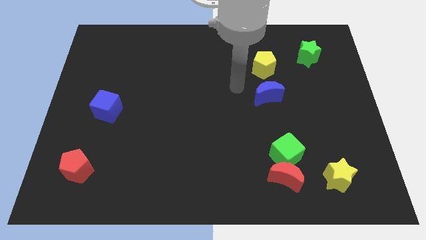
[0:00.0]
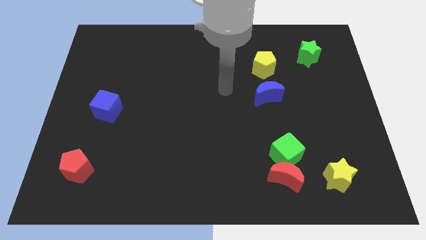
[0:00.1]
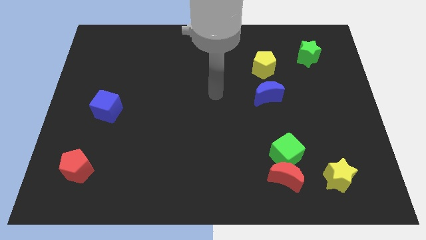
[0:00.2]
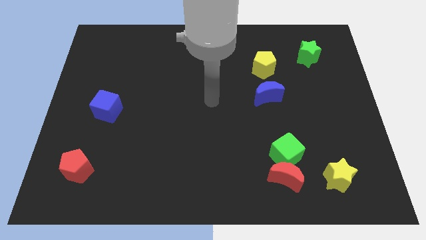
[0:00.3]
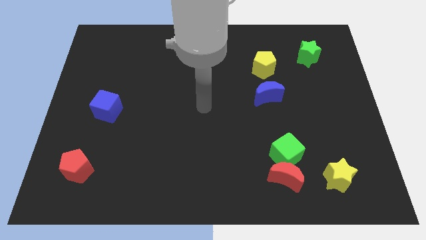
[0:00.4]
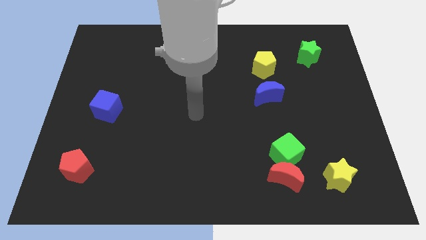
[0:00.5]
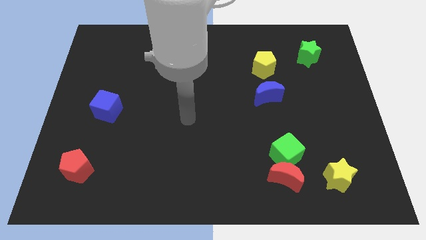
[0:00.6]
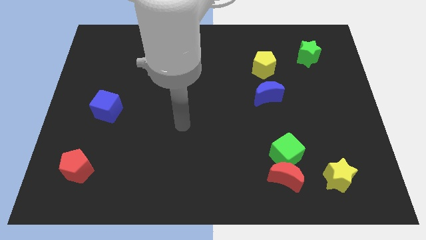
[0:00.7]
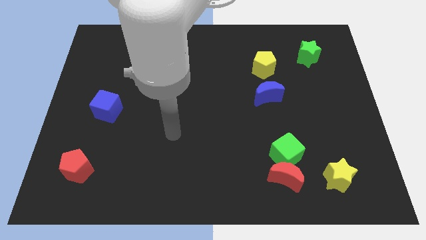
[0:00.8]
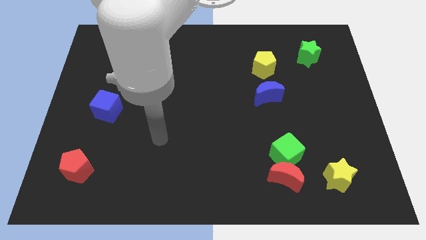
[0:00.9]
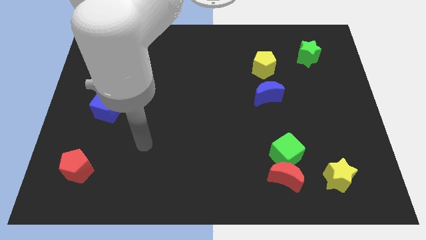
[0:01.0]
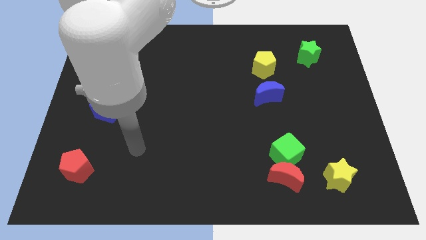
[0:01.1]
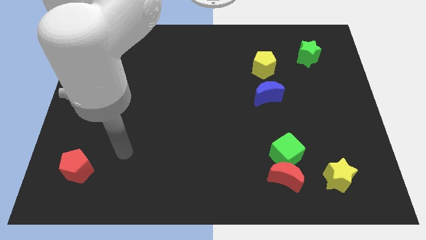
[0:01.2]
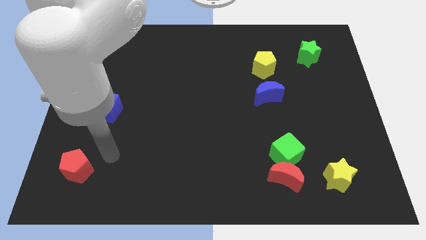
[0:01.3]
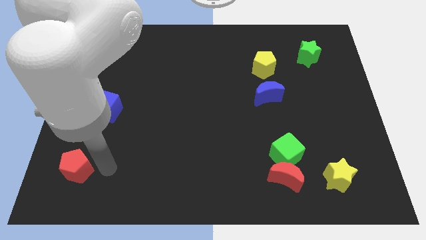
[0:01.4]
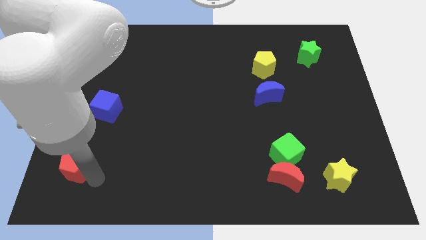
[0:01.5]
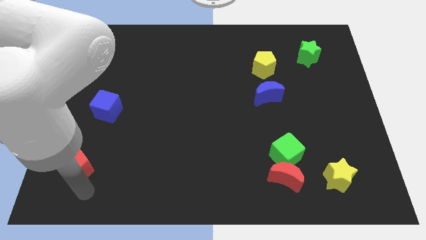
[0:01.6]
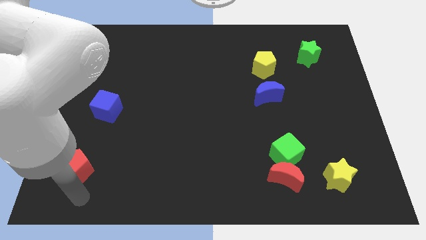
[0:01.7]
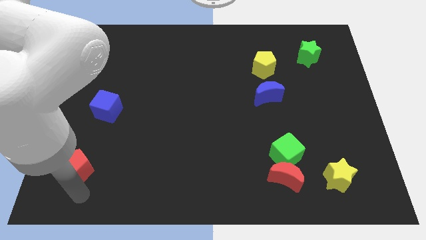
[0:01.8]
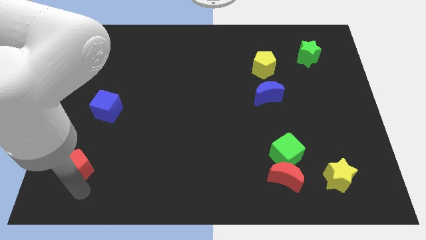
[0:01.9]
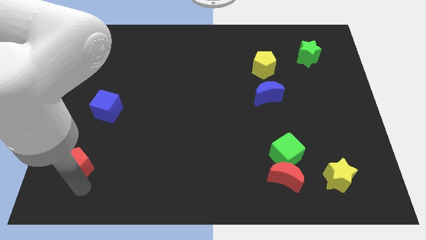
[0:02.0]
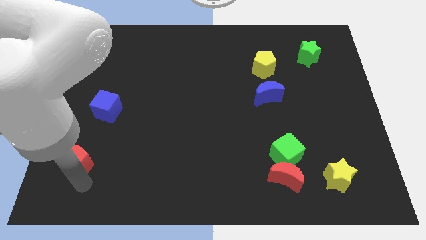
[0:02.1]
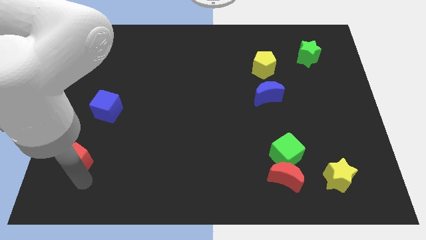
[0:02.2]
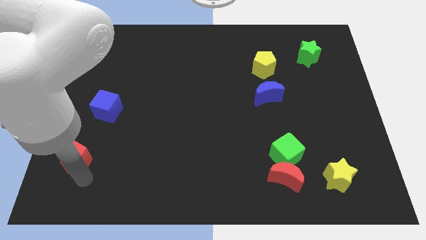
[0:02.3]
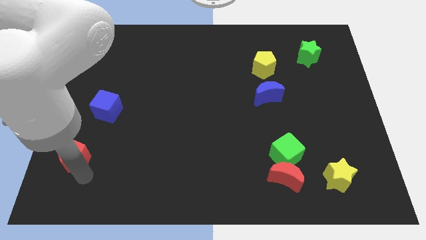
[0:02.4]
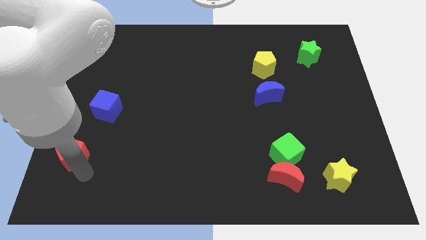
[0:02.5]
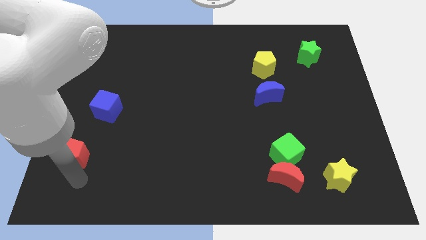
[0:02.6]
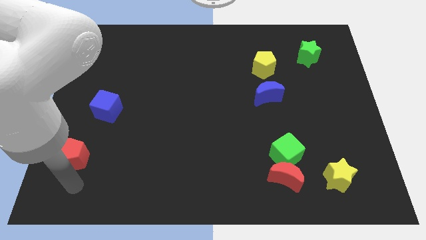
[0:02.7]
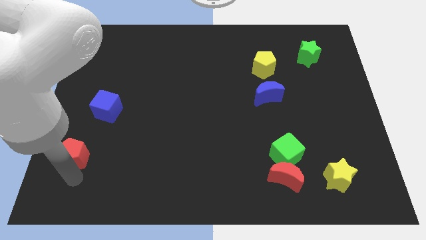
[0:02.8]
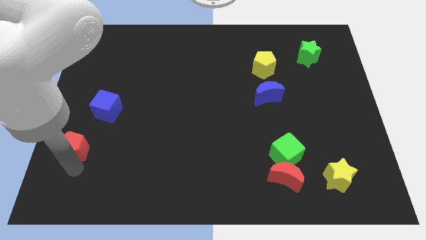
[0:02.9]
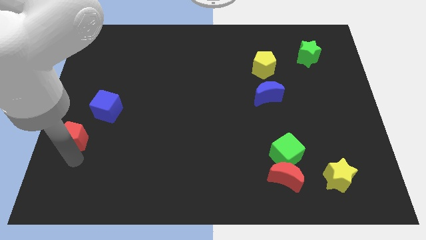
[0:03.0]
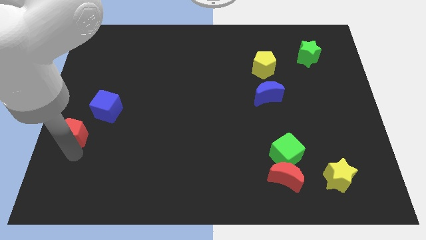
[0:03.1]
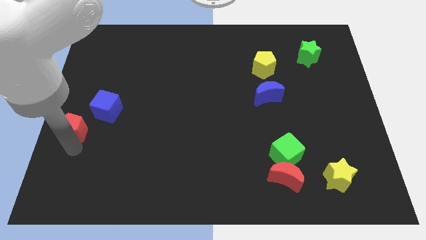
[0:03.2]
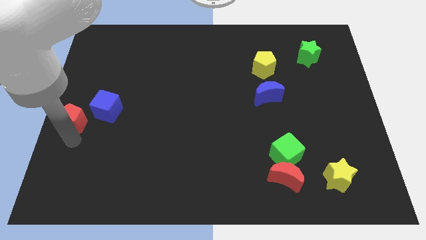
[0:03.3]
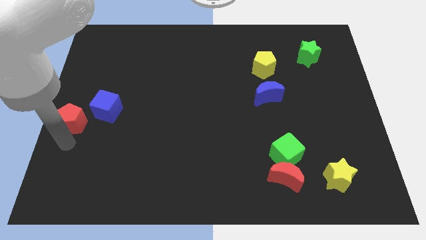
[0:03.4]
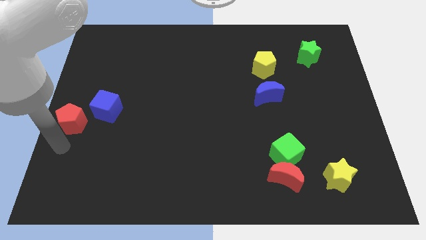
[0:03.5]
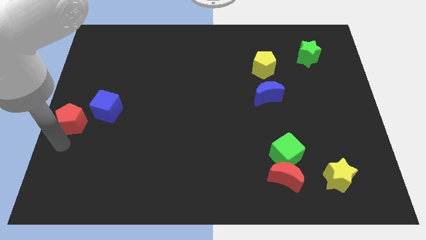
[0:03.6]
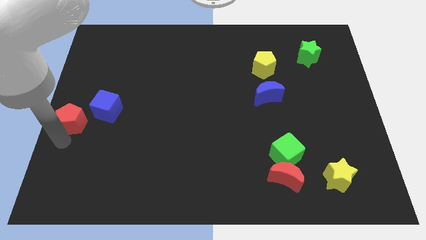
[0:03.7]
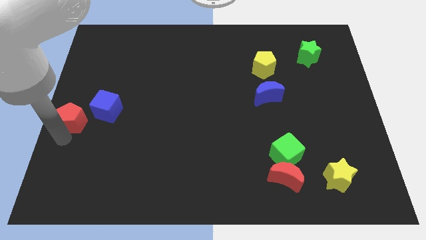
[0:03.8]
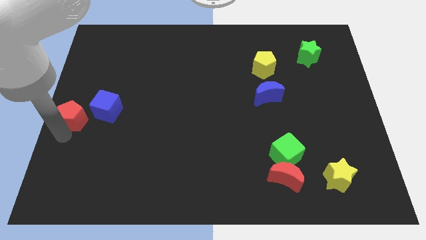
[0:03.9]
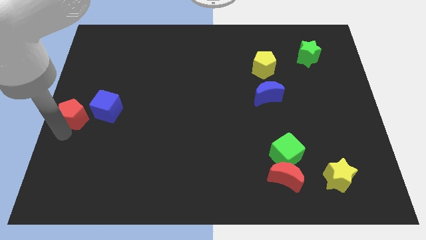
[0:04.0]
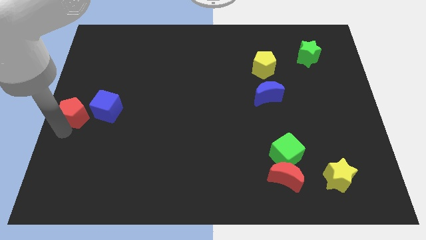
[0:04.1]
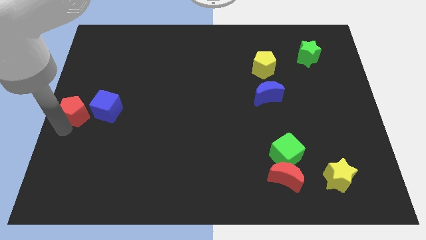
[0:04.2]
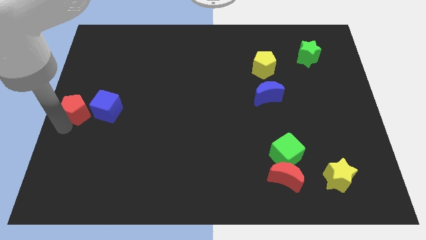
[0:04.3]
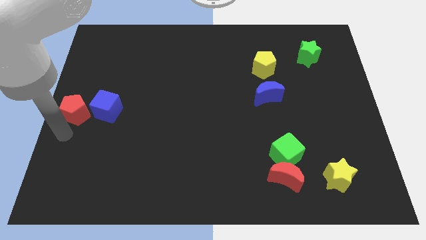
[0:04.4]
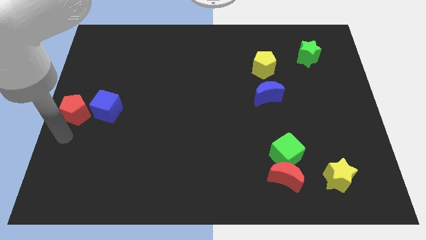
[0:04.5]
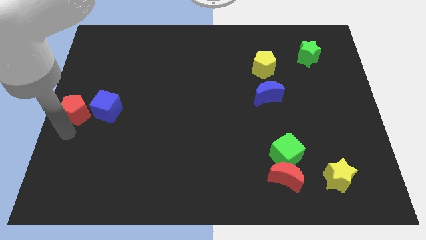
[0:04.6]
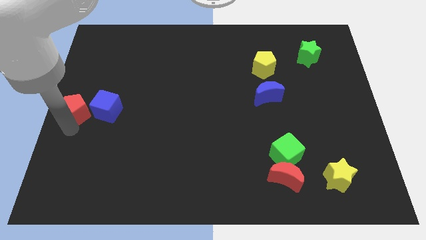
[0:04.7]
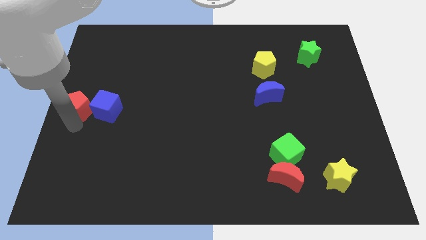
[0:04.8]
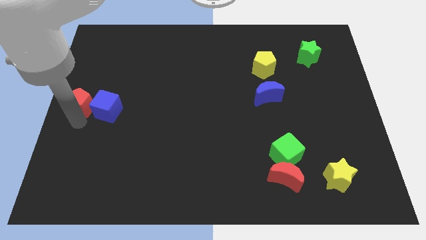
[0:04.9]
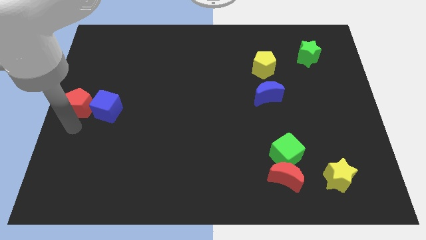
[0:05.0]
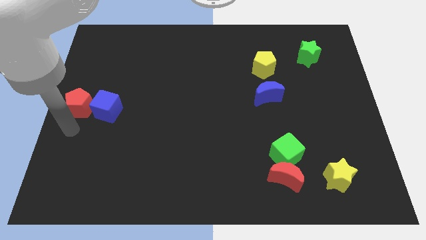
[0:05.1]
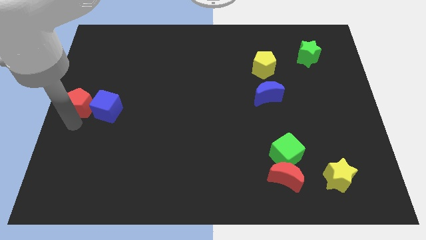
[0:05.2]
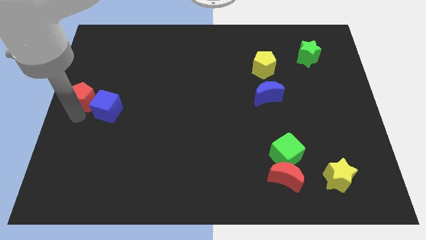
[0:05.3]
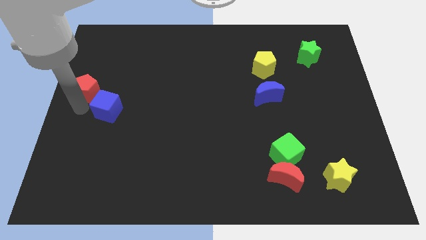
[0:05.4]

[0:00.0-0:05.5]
slide the red pentagon up

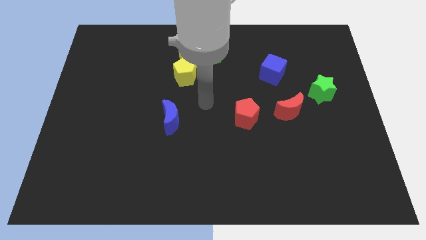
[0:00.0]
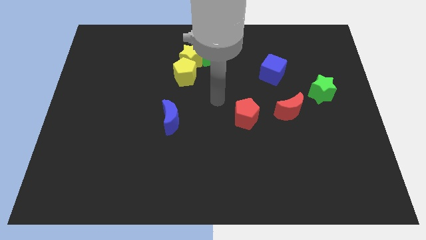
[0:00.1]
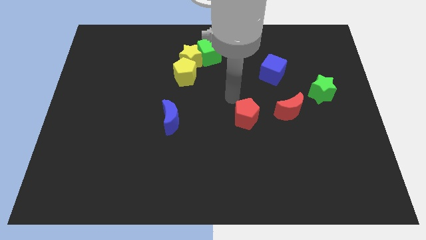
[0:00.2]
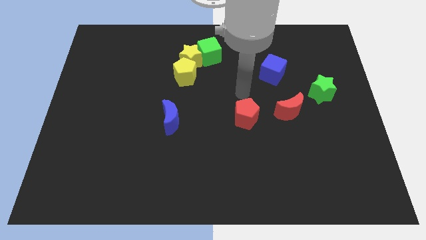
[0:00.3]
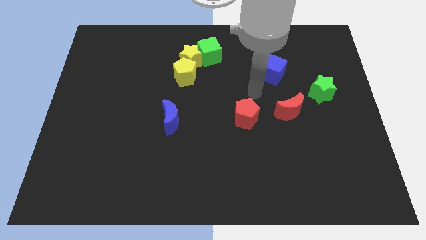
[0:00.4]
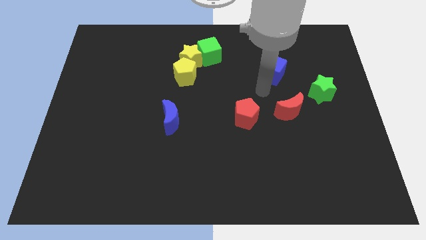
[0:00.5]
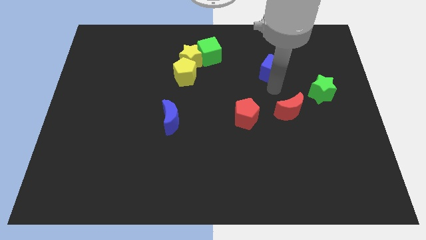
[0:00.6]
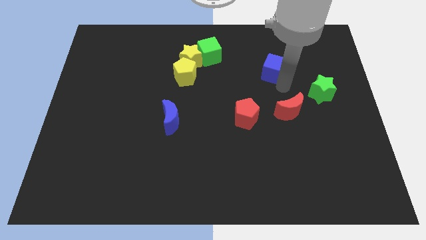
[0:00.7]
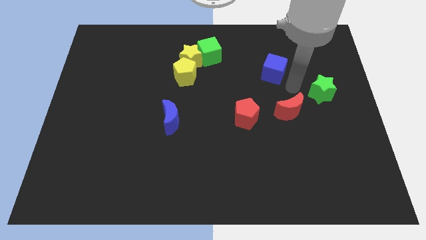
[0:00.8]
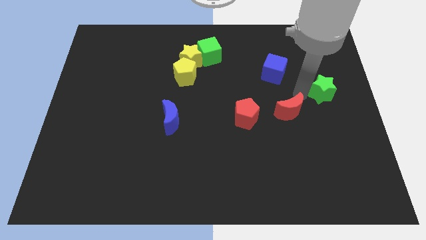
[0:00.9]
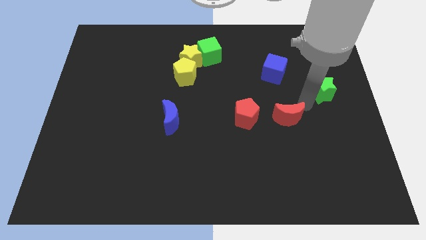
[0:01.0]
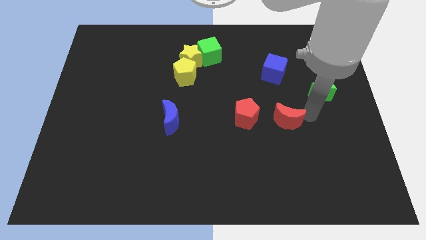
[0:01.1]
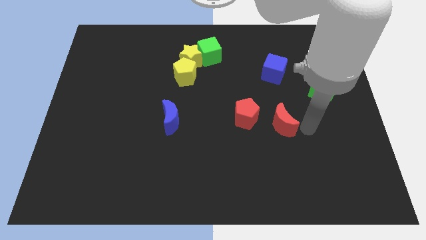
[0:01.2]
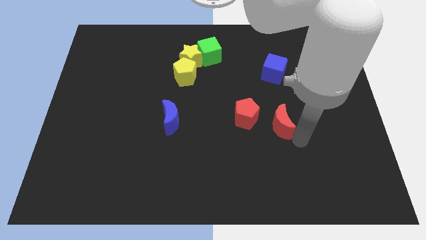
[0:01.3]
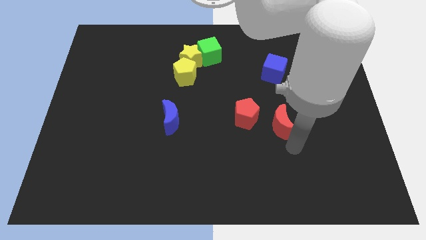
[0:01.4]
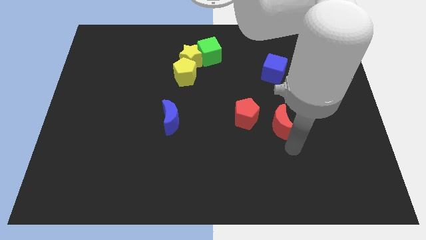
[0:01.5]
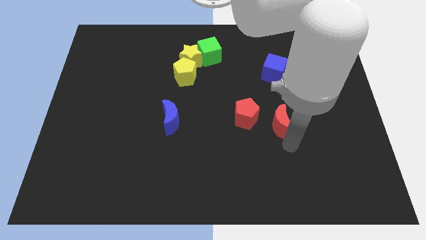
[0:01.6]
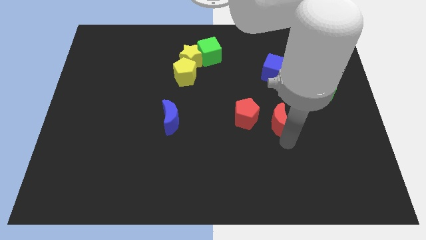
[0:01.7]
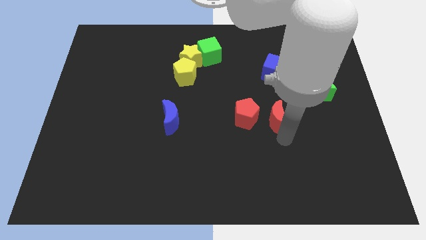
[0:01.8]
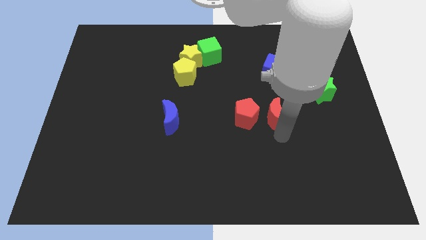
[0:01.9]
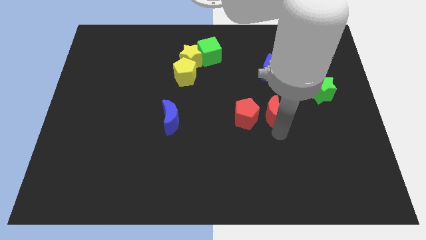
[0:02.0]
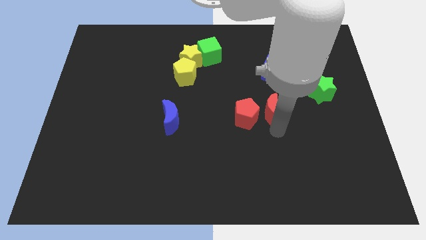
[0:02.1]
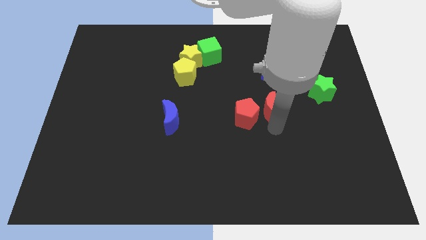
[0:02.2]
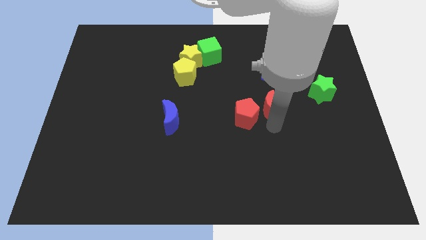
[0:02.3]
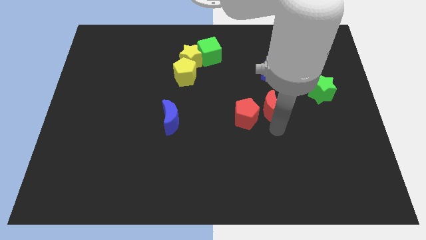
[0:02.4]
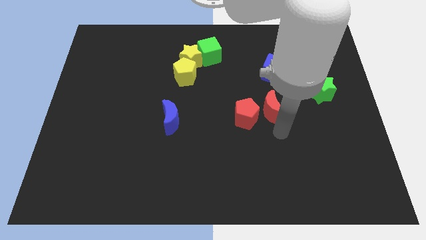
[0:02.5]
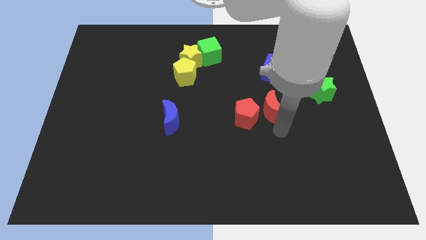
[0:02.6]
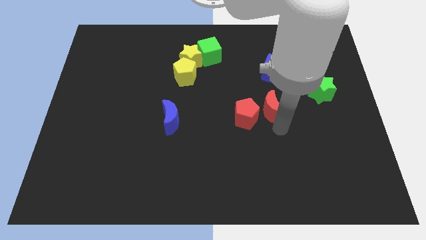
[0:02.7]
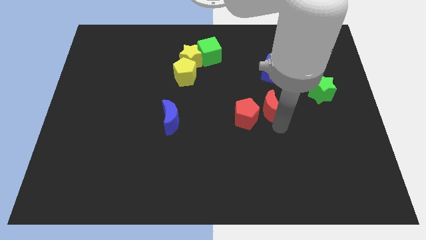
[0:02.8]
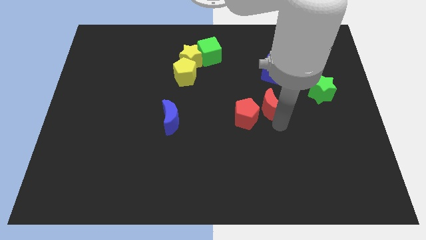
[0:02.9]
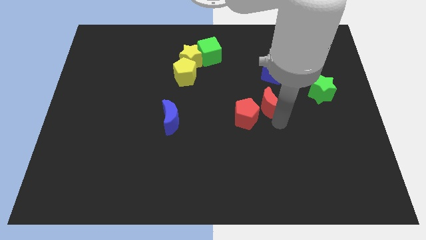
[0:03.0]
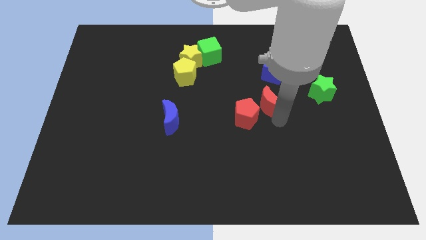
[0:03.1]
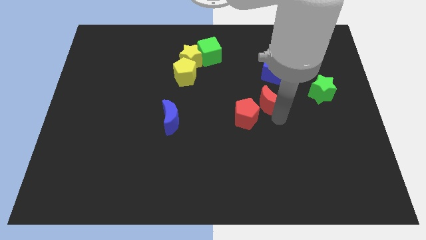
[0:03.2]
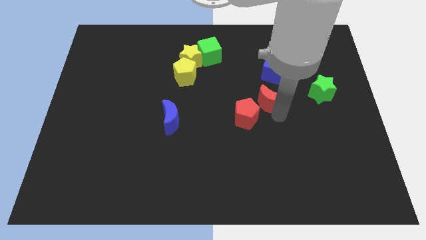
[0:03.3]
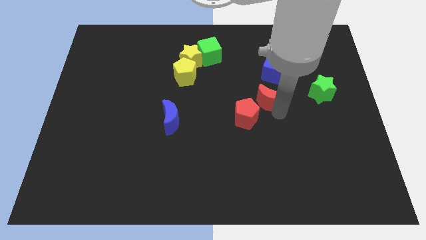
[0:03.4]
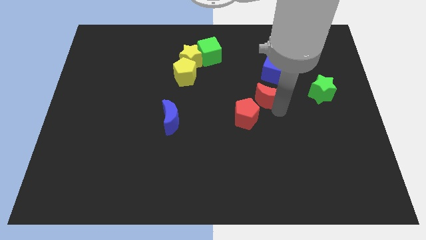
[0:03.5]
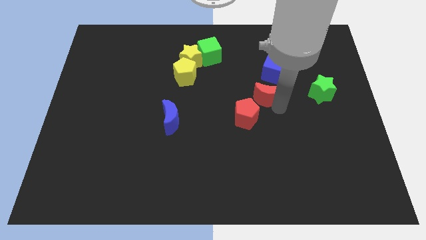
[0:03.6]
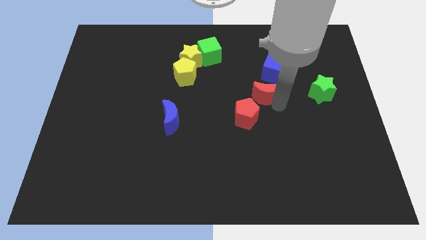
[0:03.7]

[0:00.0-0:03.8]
slide the red moon a bit up and left
